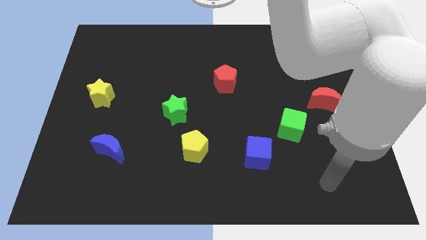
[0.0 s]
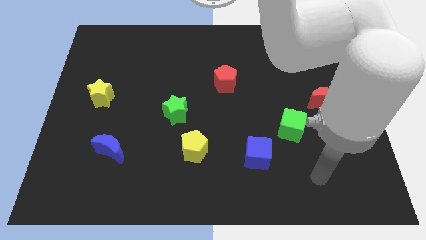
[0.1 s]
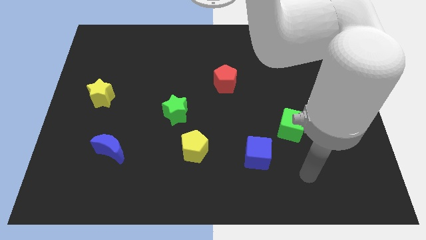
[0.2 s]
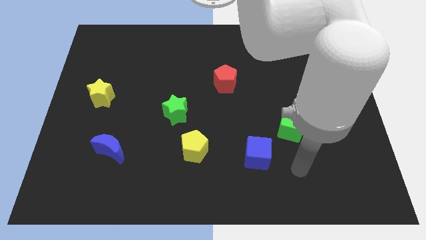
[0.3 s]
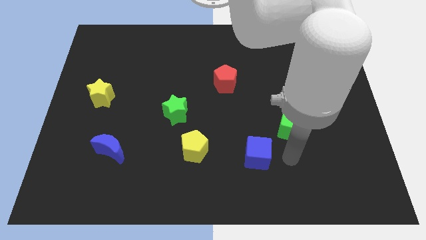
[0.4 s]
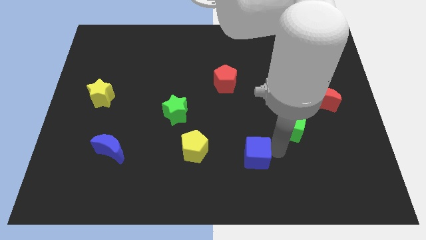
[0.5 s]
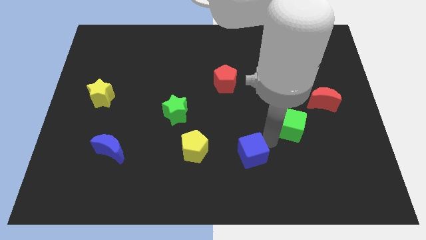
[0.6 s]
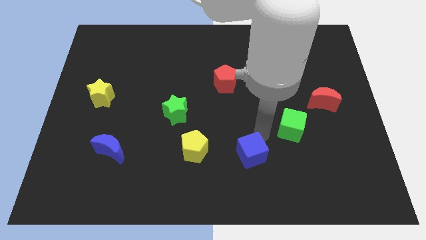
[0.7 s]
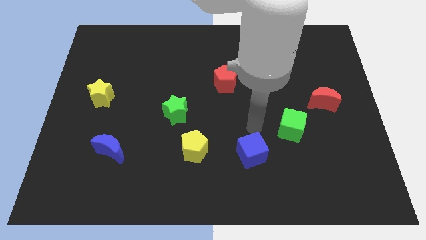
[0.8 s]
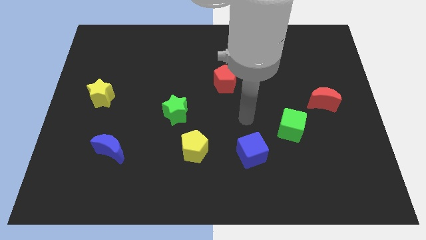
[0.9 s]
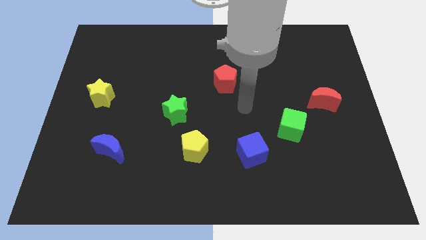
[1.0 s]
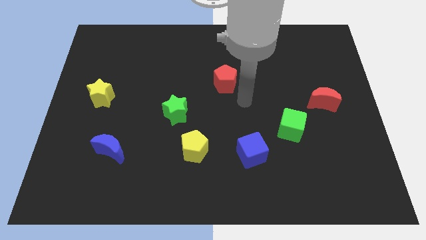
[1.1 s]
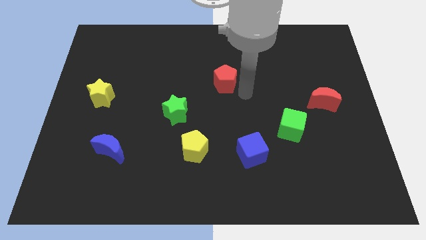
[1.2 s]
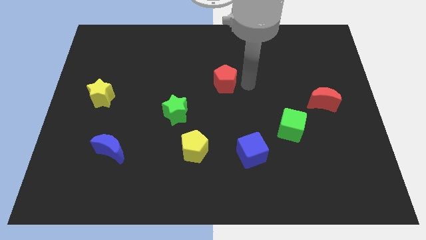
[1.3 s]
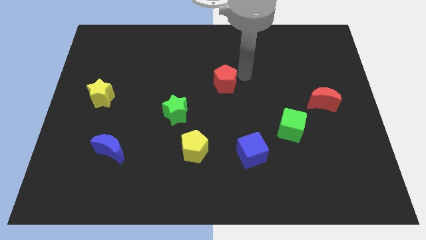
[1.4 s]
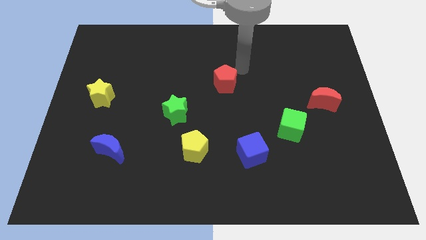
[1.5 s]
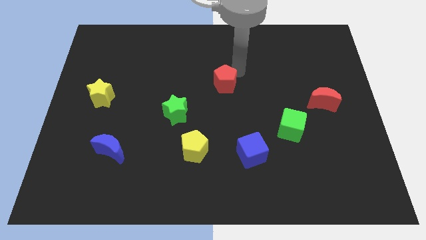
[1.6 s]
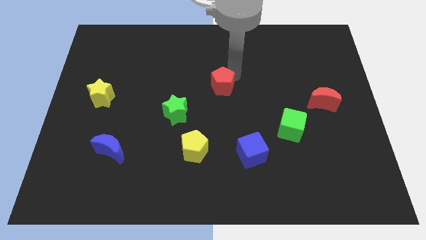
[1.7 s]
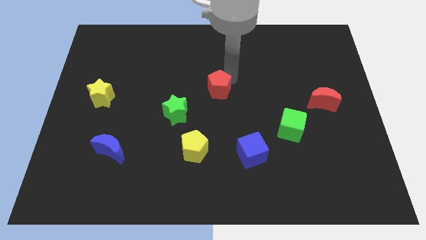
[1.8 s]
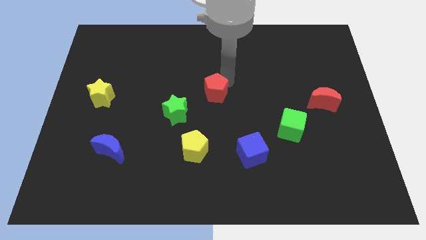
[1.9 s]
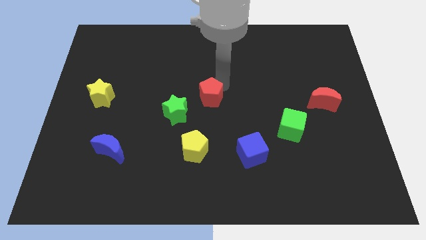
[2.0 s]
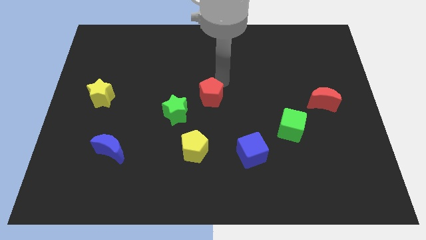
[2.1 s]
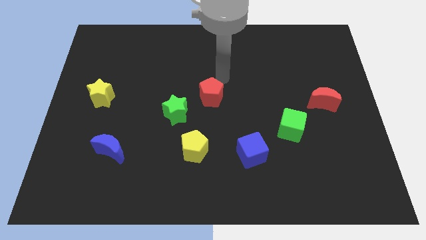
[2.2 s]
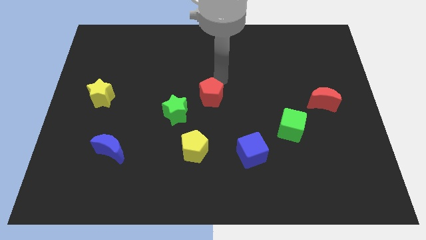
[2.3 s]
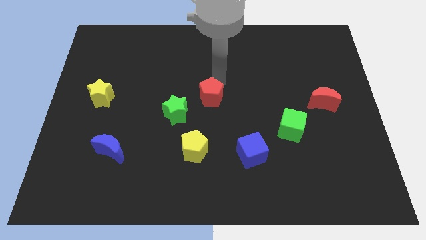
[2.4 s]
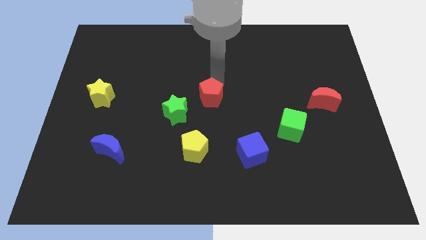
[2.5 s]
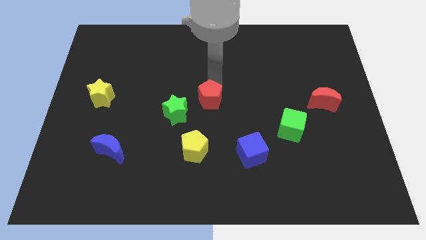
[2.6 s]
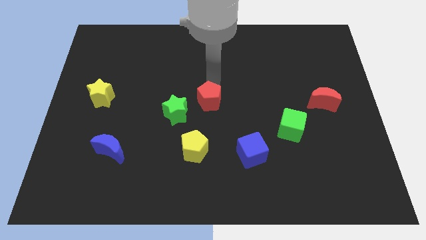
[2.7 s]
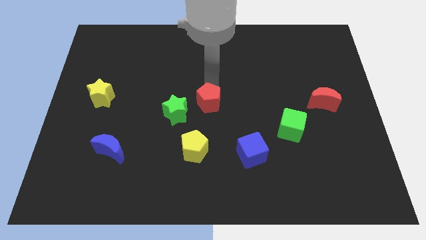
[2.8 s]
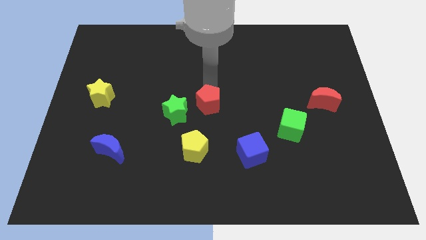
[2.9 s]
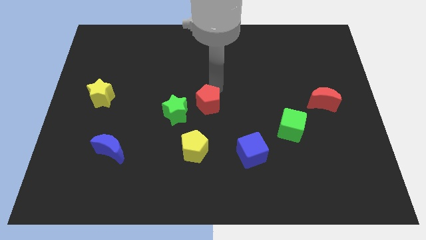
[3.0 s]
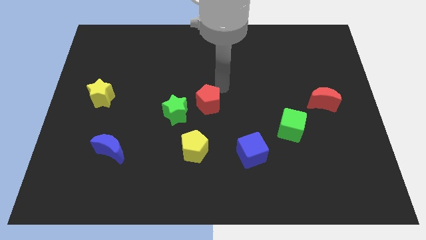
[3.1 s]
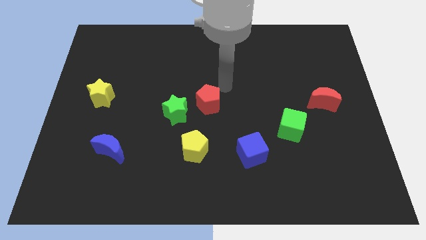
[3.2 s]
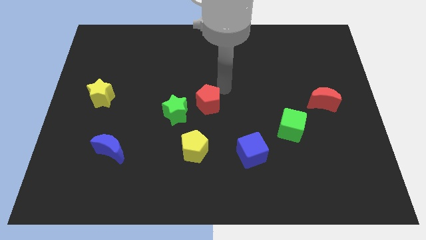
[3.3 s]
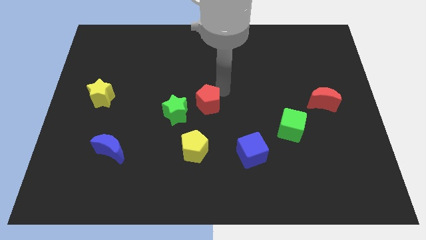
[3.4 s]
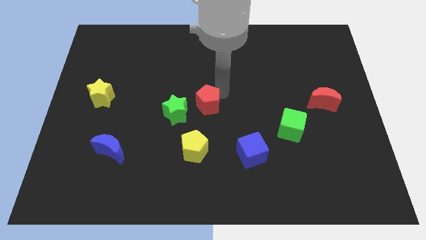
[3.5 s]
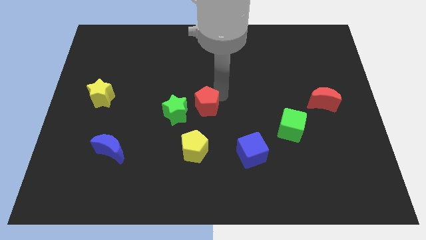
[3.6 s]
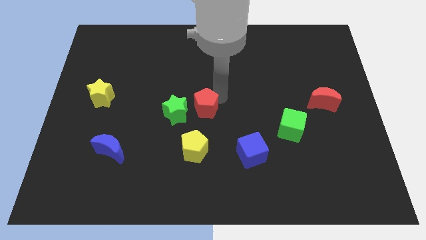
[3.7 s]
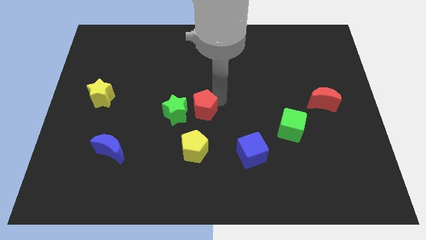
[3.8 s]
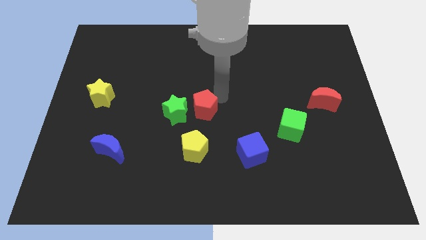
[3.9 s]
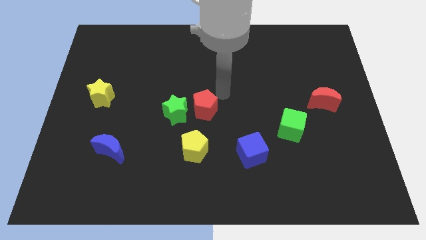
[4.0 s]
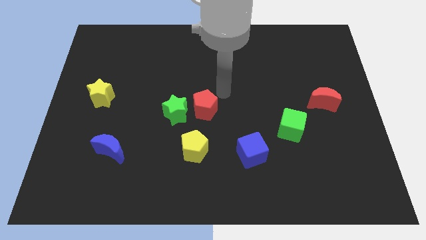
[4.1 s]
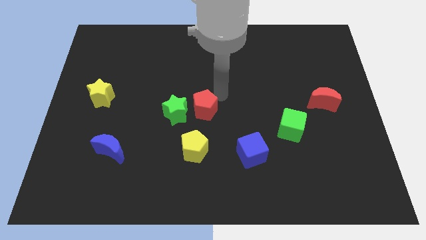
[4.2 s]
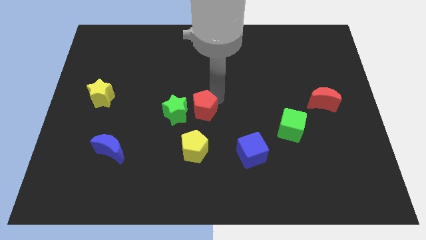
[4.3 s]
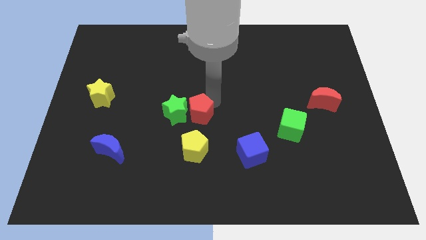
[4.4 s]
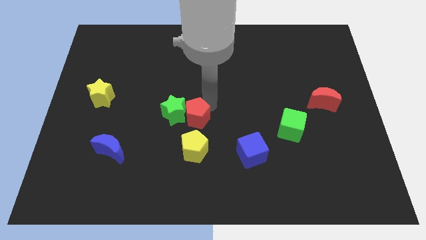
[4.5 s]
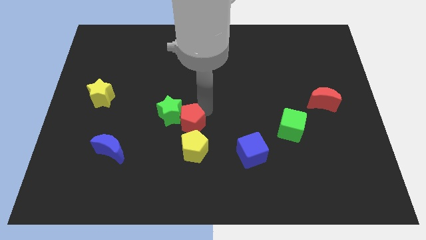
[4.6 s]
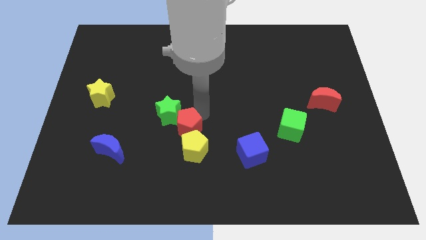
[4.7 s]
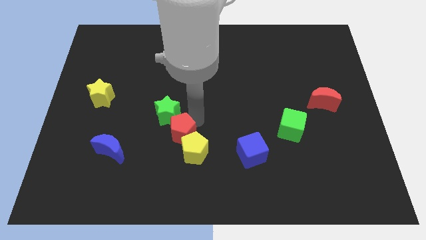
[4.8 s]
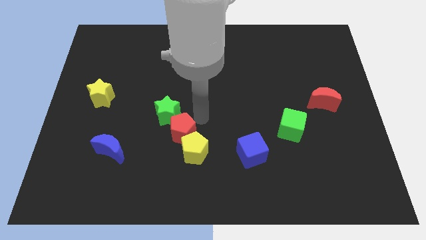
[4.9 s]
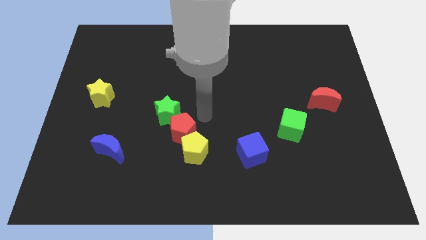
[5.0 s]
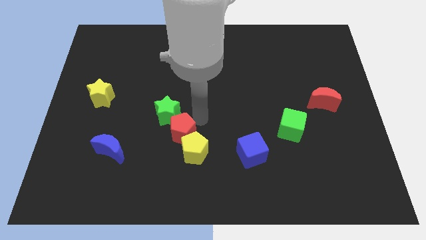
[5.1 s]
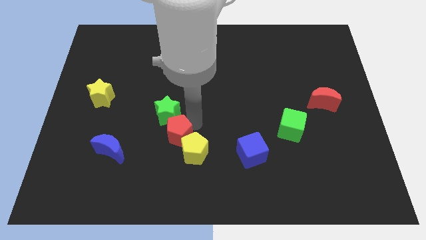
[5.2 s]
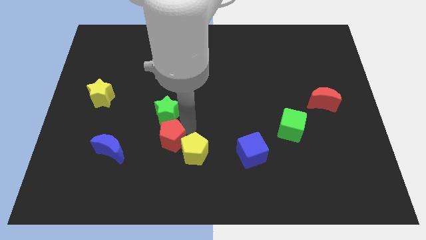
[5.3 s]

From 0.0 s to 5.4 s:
slide the red pentagon right of the blue moon

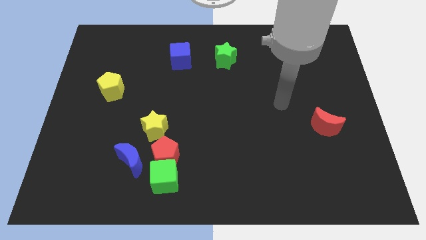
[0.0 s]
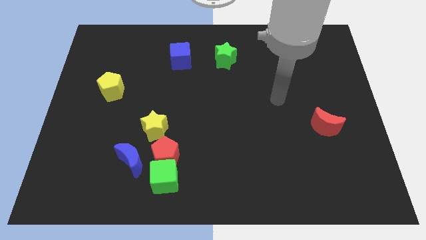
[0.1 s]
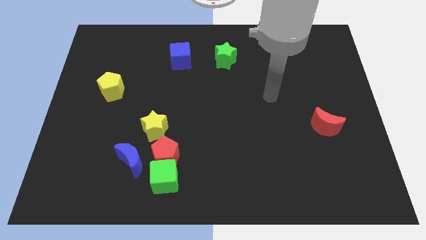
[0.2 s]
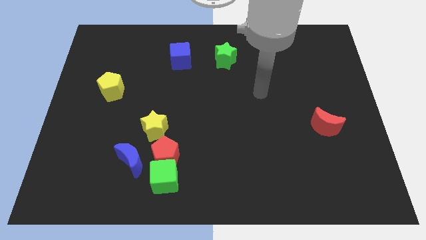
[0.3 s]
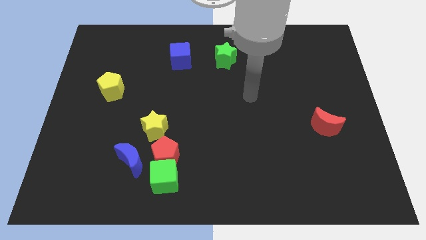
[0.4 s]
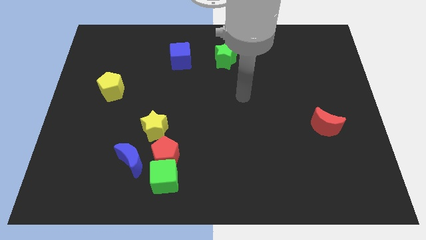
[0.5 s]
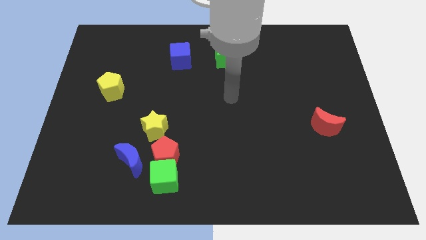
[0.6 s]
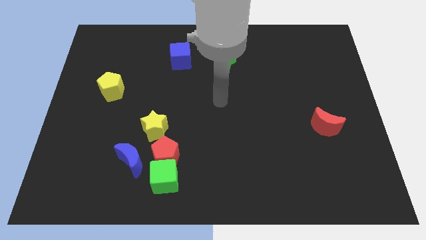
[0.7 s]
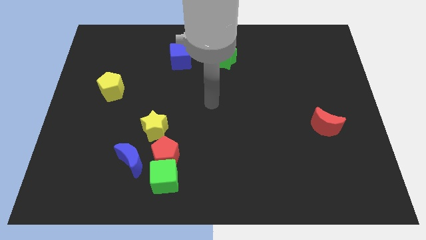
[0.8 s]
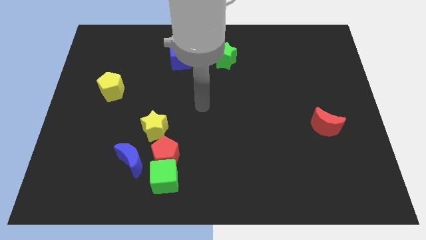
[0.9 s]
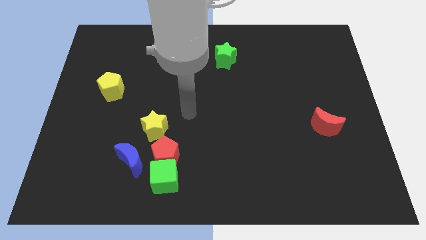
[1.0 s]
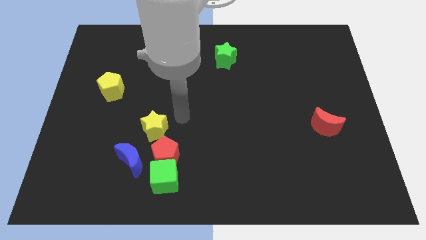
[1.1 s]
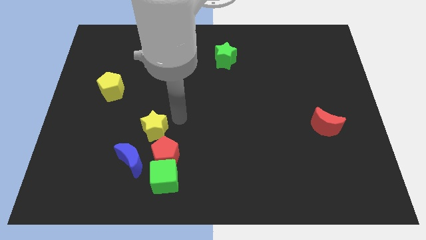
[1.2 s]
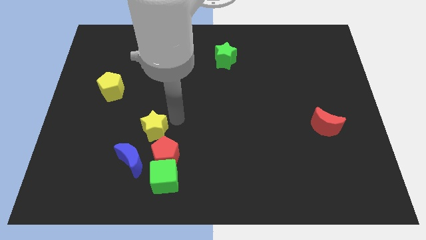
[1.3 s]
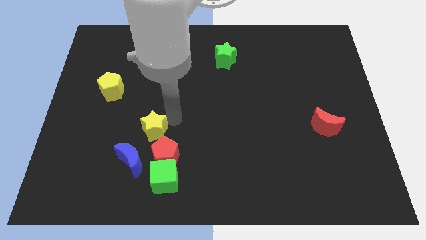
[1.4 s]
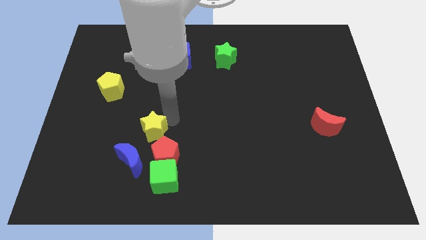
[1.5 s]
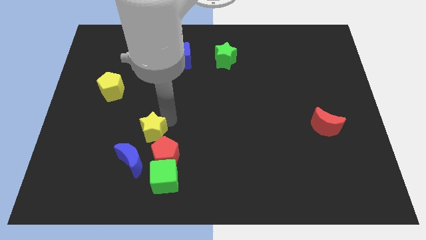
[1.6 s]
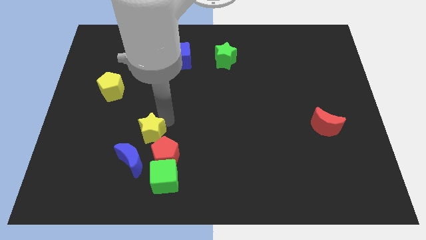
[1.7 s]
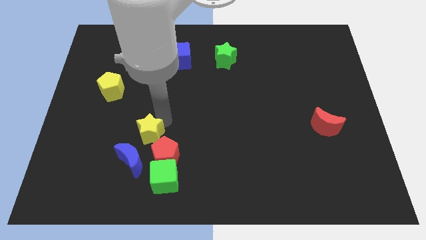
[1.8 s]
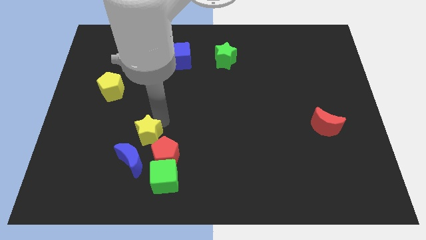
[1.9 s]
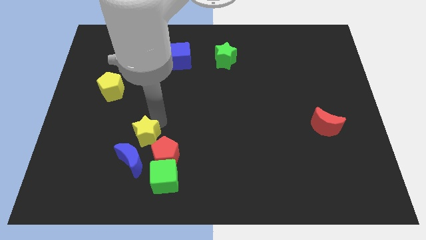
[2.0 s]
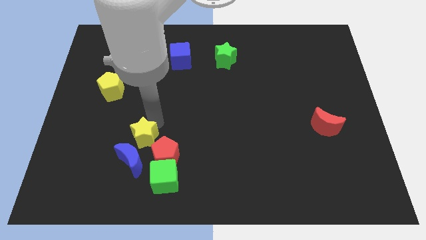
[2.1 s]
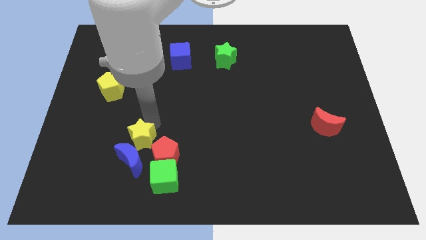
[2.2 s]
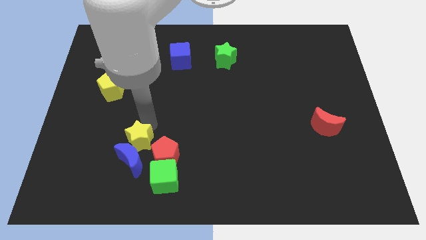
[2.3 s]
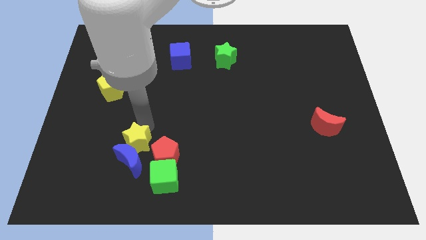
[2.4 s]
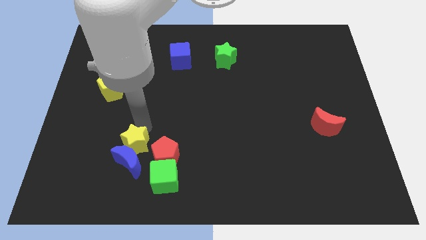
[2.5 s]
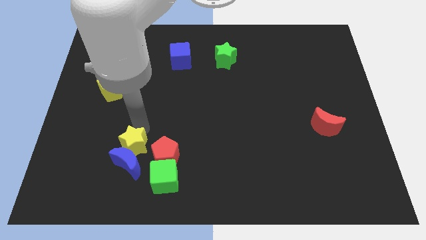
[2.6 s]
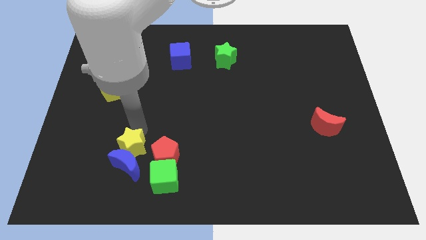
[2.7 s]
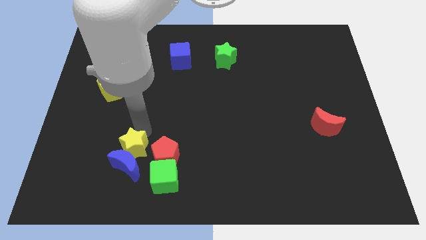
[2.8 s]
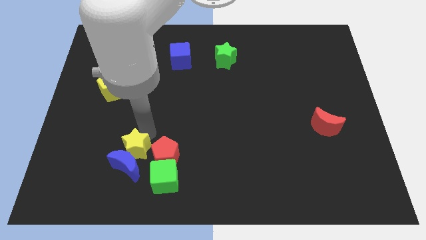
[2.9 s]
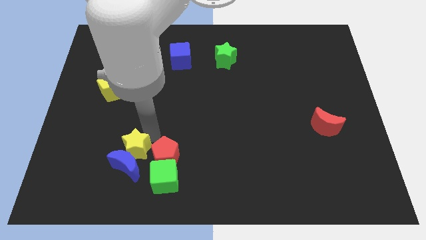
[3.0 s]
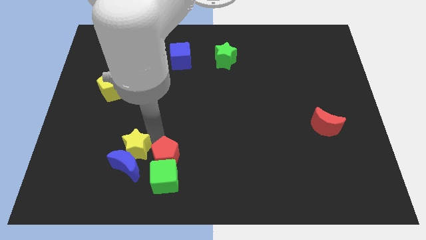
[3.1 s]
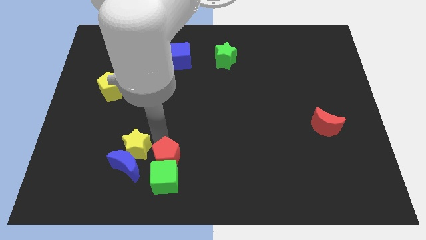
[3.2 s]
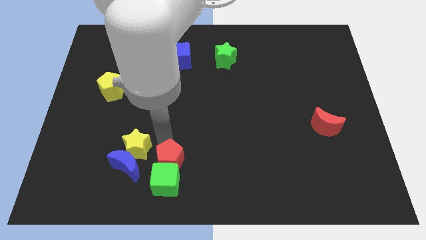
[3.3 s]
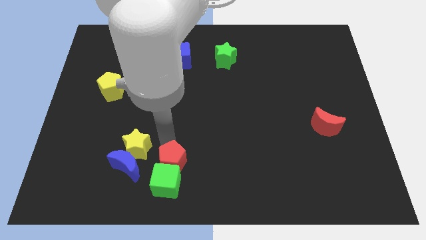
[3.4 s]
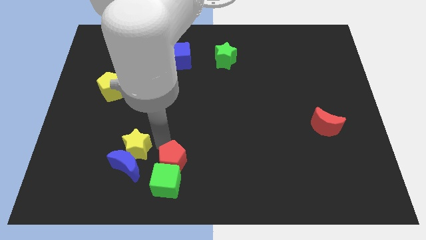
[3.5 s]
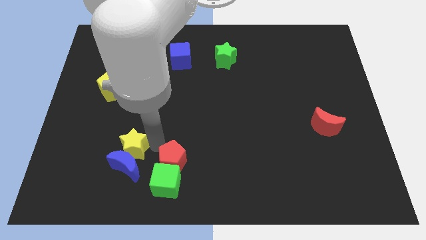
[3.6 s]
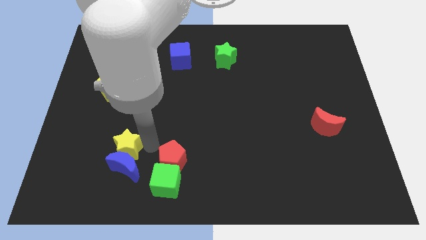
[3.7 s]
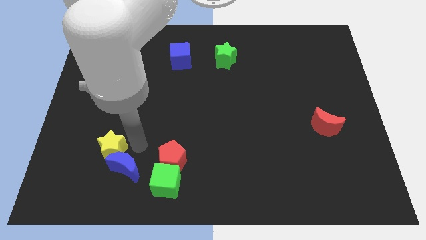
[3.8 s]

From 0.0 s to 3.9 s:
move the yellow star to the left of the blue moon
